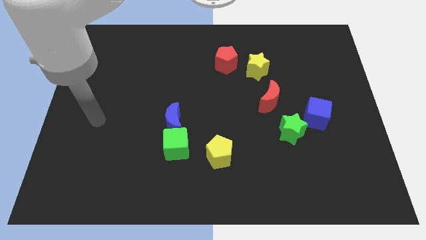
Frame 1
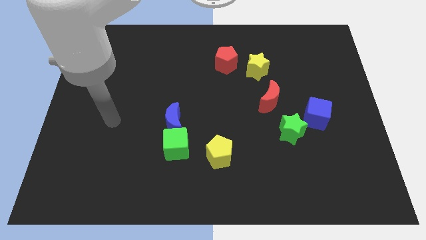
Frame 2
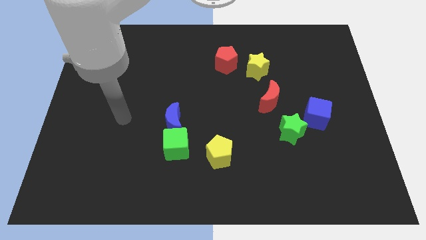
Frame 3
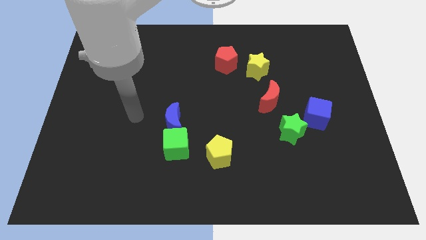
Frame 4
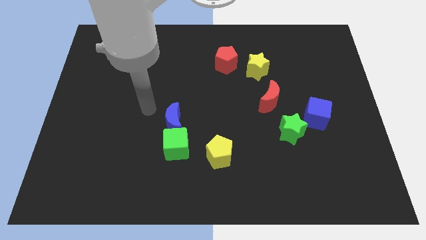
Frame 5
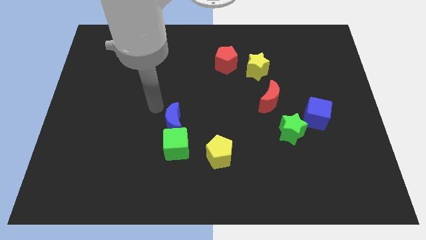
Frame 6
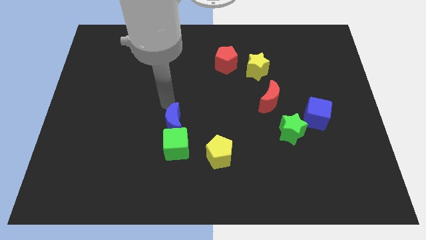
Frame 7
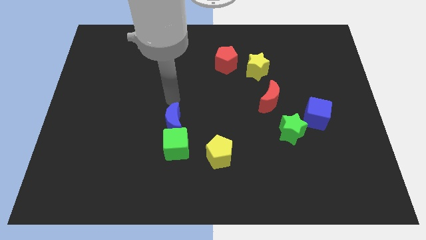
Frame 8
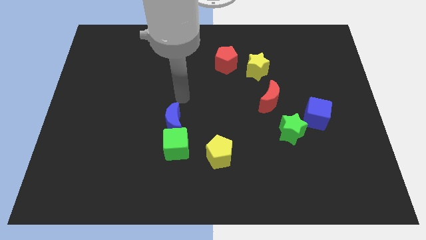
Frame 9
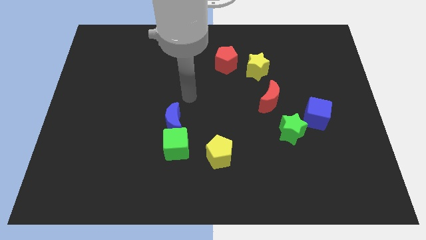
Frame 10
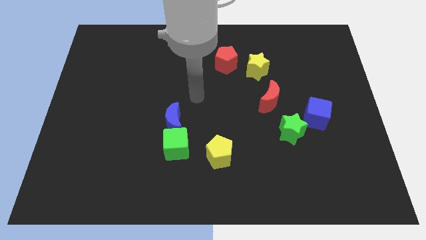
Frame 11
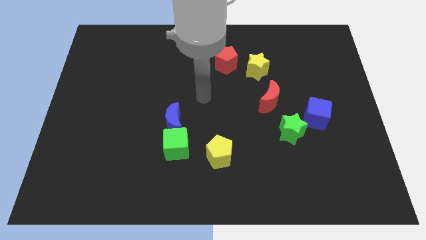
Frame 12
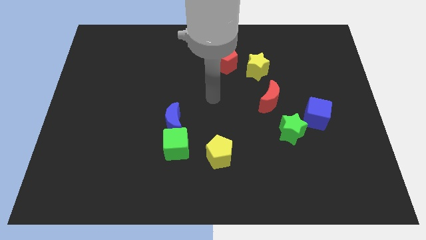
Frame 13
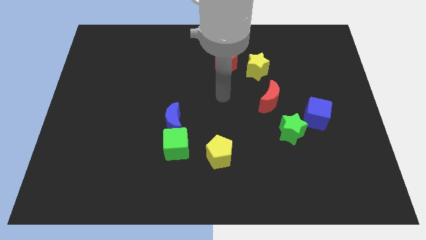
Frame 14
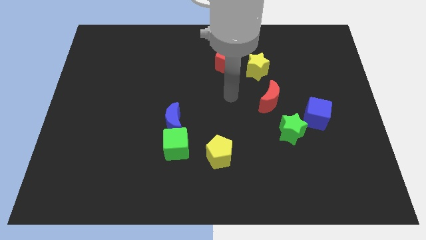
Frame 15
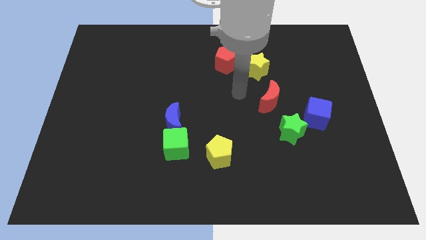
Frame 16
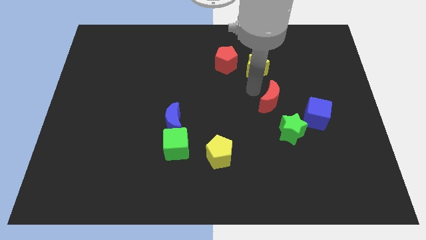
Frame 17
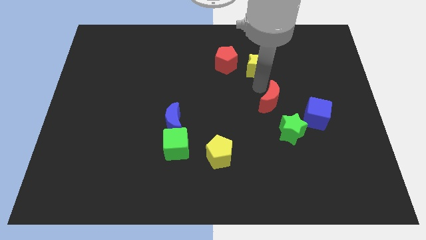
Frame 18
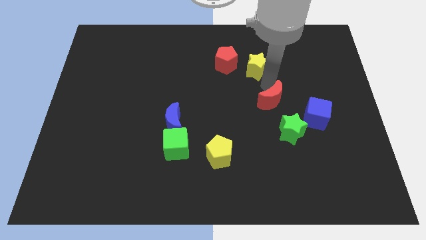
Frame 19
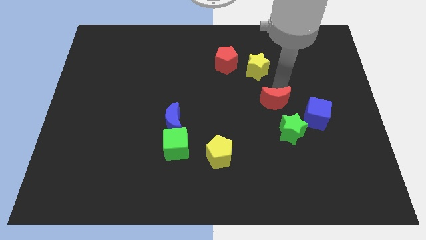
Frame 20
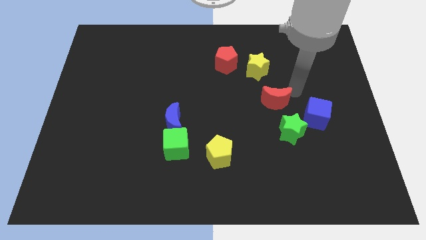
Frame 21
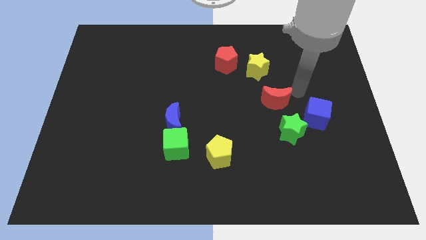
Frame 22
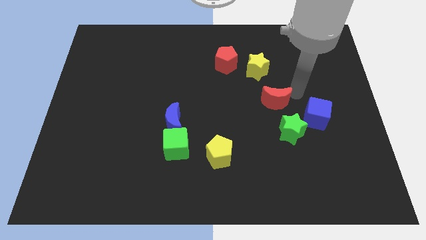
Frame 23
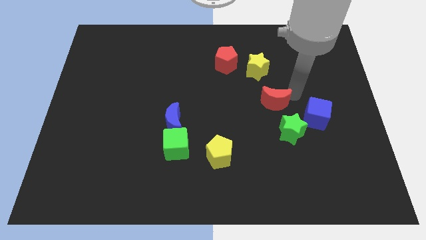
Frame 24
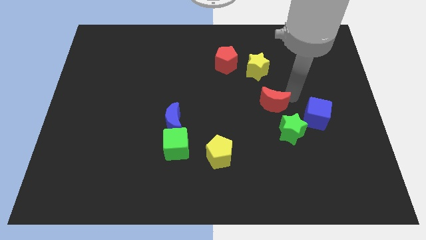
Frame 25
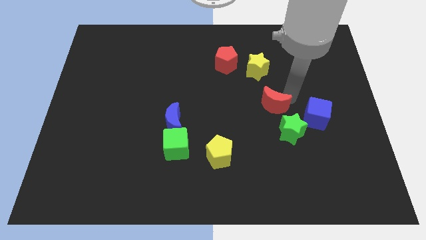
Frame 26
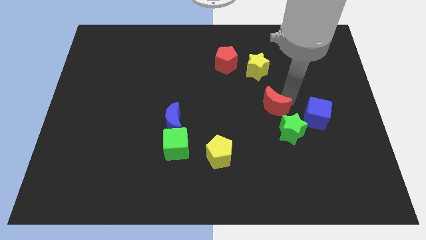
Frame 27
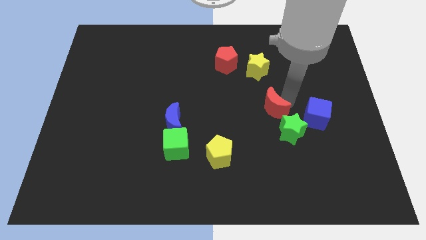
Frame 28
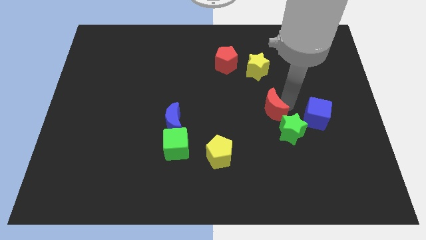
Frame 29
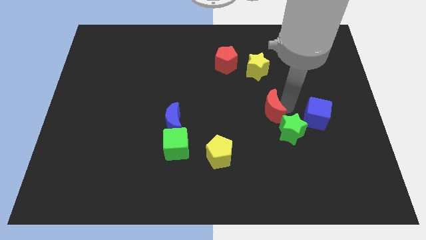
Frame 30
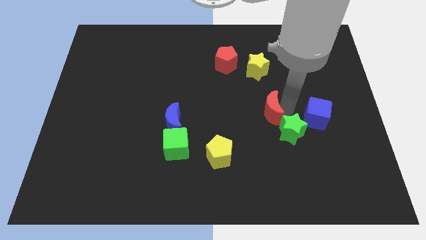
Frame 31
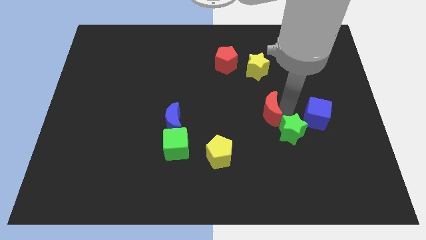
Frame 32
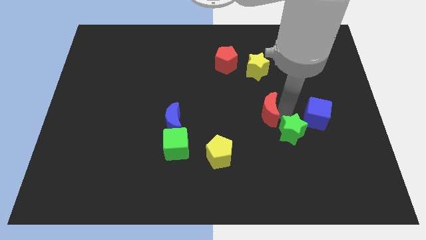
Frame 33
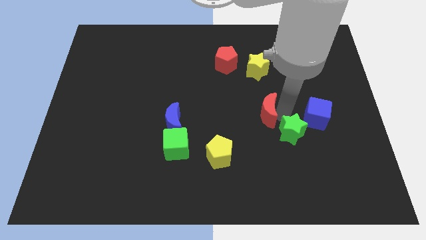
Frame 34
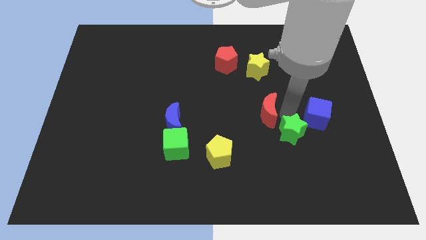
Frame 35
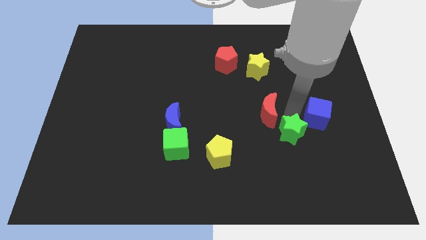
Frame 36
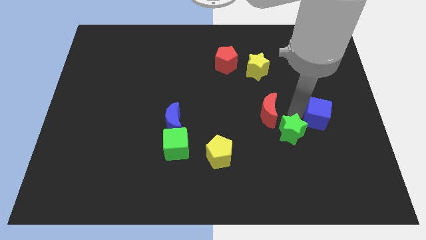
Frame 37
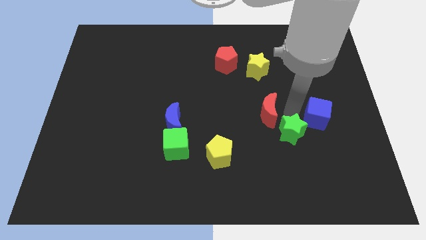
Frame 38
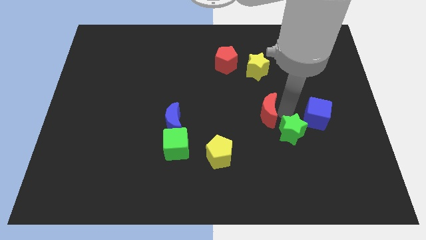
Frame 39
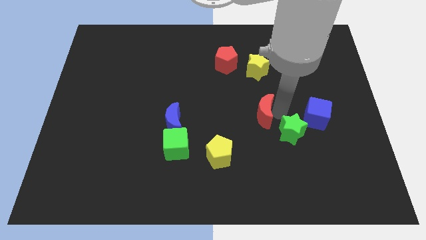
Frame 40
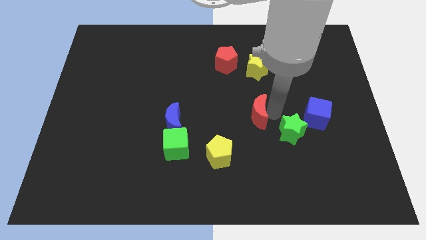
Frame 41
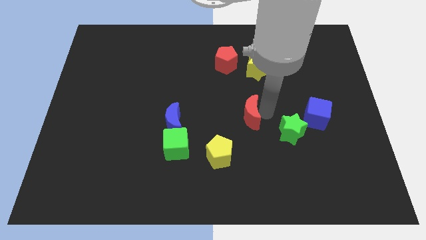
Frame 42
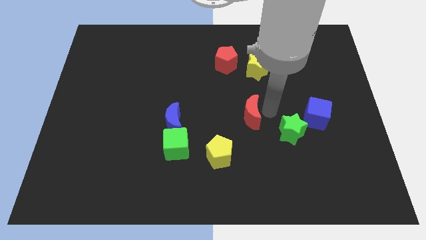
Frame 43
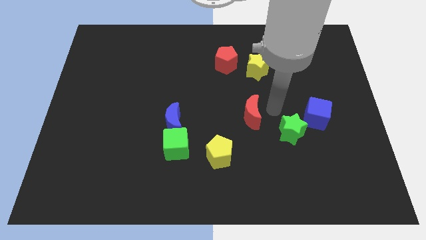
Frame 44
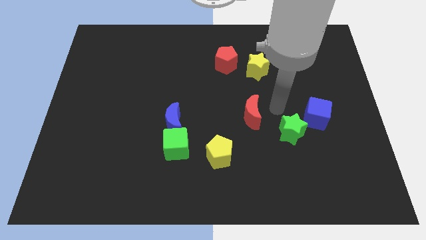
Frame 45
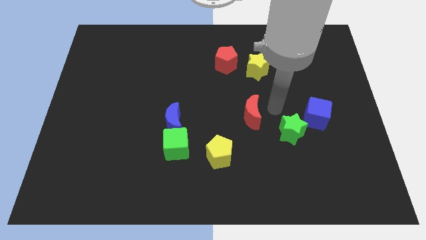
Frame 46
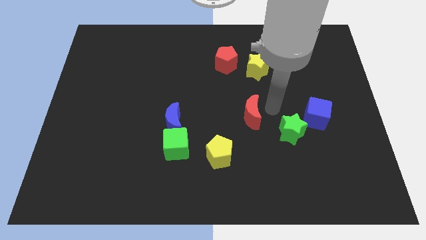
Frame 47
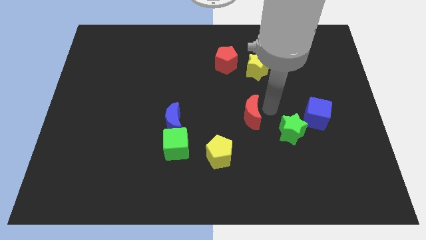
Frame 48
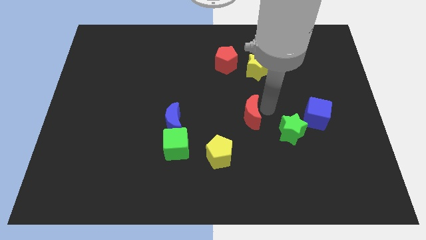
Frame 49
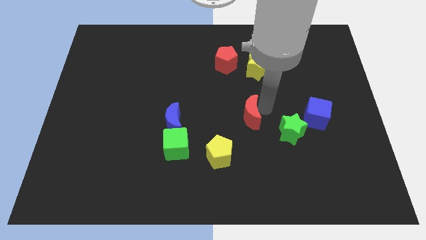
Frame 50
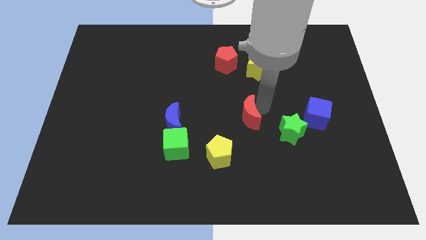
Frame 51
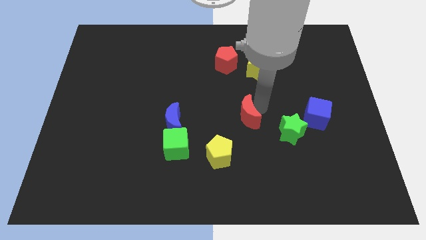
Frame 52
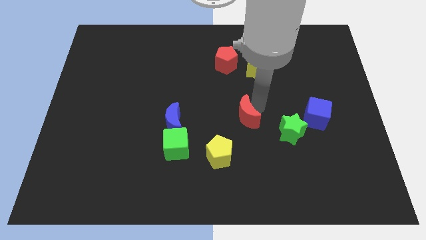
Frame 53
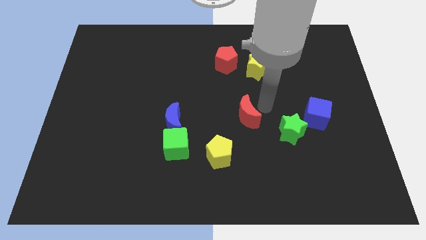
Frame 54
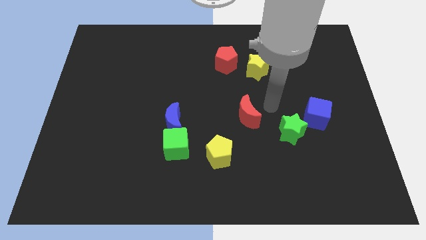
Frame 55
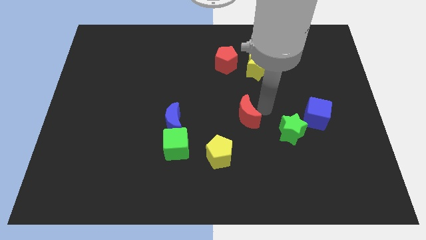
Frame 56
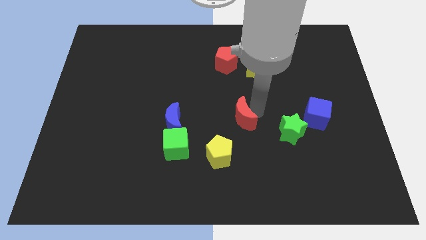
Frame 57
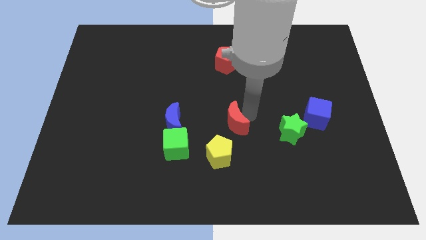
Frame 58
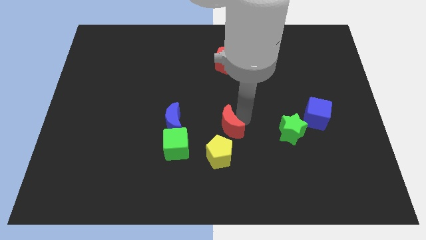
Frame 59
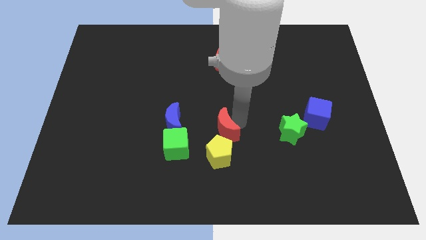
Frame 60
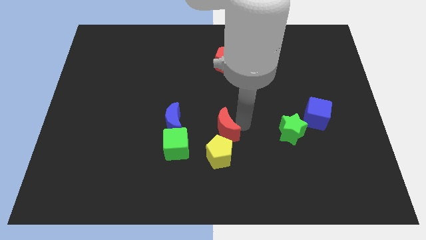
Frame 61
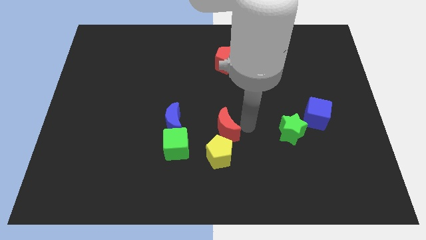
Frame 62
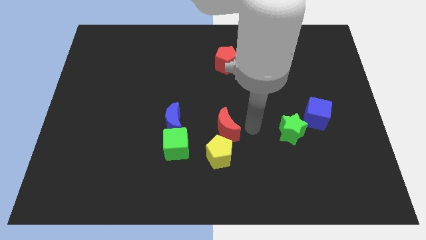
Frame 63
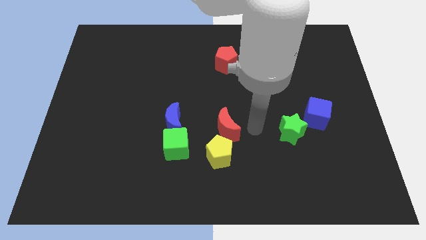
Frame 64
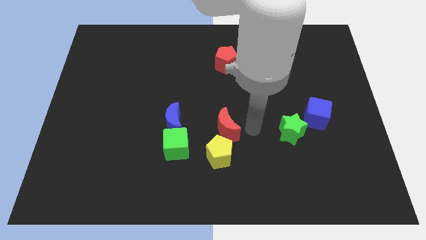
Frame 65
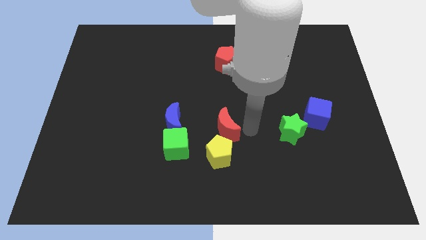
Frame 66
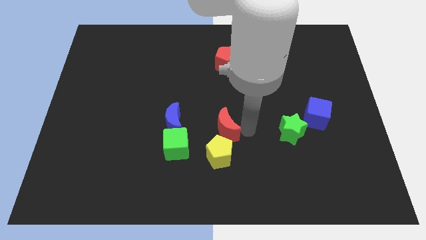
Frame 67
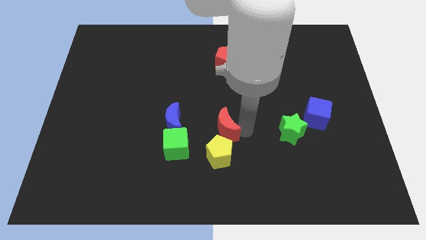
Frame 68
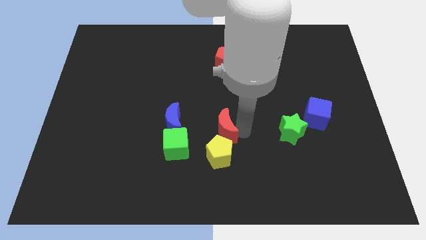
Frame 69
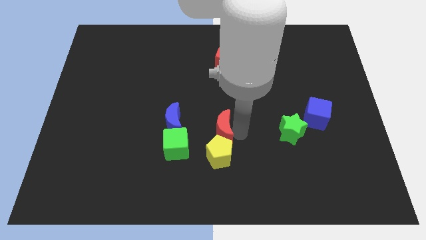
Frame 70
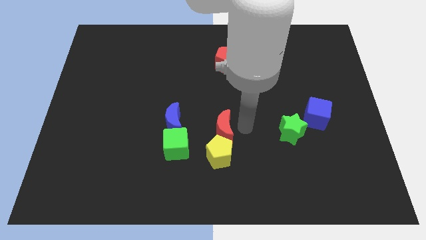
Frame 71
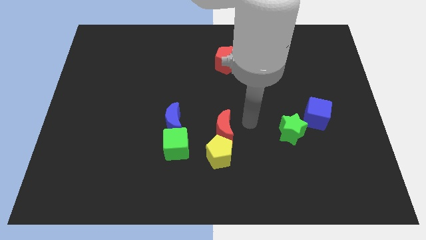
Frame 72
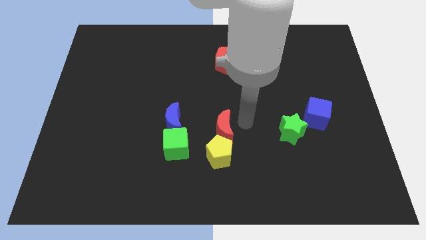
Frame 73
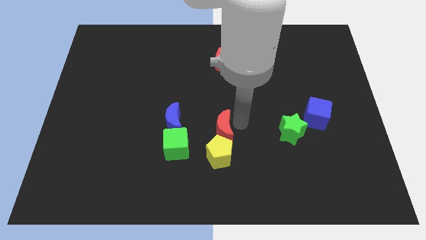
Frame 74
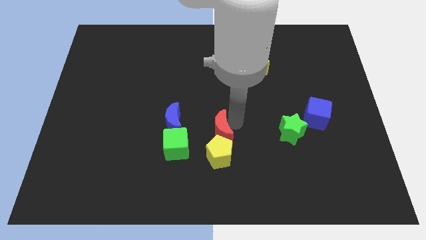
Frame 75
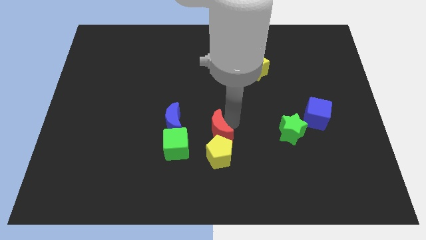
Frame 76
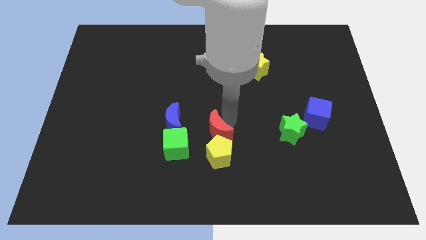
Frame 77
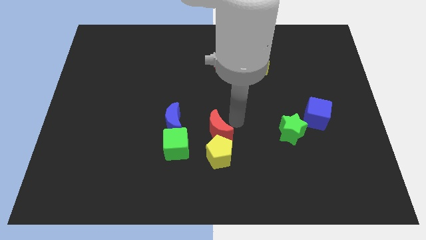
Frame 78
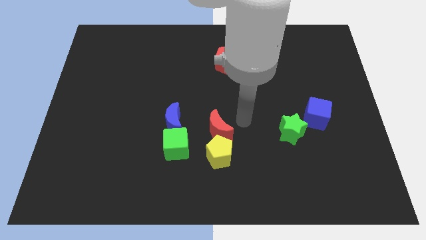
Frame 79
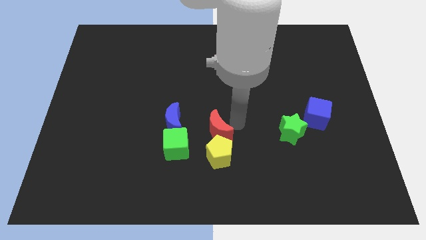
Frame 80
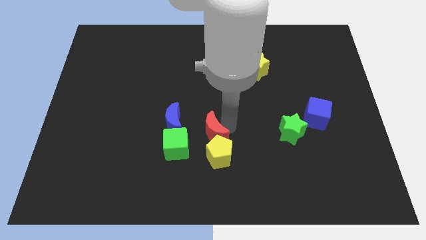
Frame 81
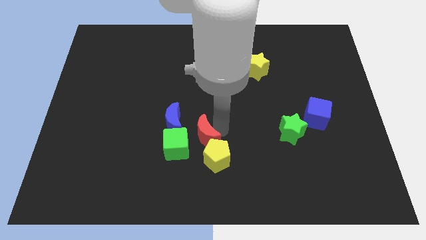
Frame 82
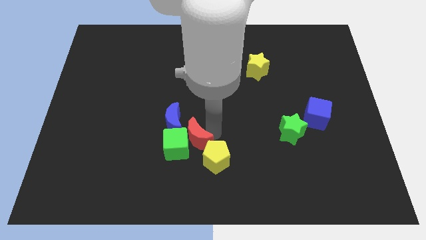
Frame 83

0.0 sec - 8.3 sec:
put the red moon close to the green cube
